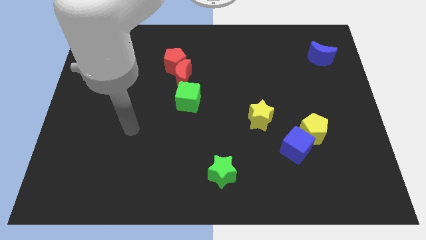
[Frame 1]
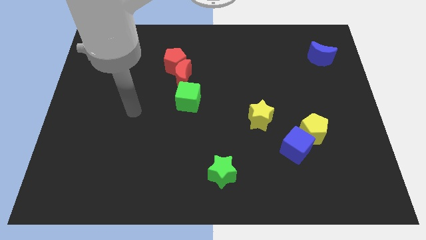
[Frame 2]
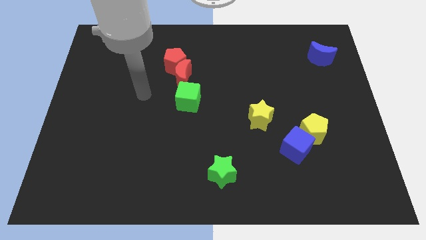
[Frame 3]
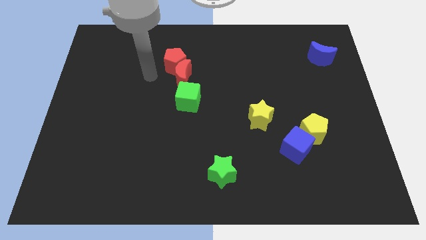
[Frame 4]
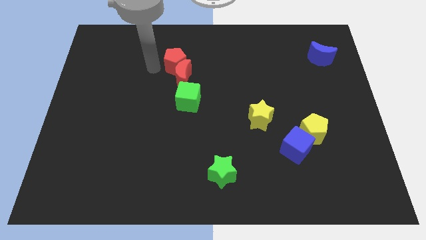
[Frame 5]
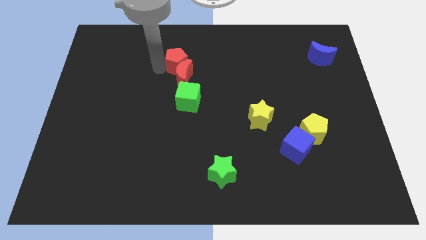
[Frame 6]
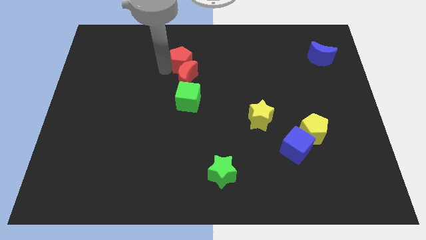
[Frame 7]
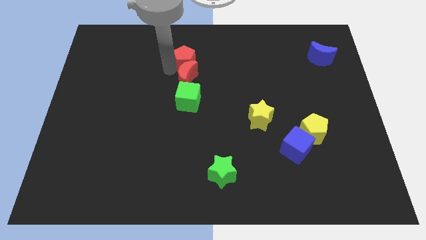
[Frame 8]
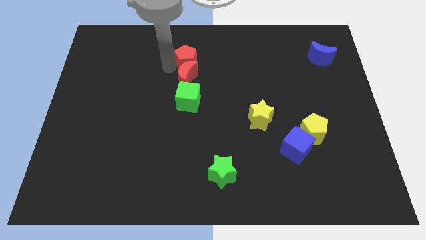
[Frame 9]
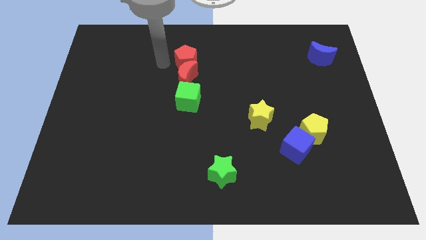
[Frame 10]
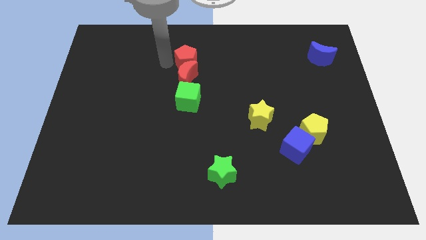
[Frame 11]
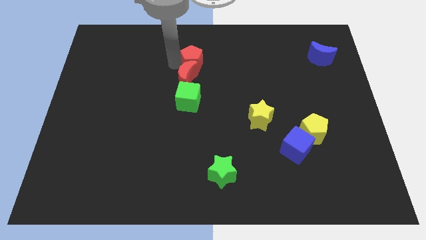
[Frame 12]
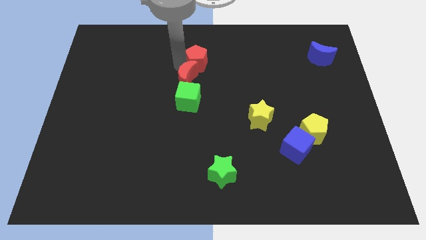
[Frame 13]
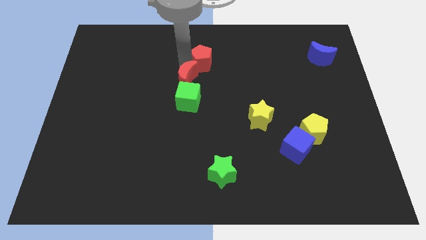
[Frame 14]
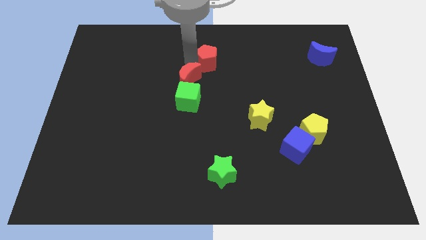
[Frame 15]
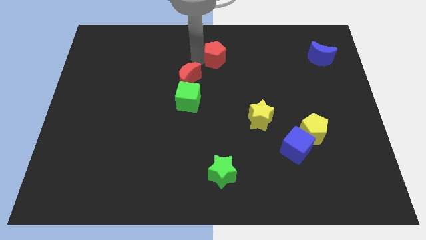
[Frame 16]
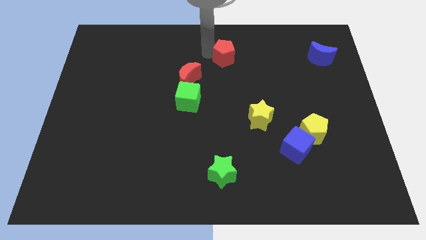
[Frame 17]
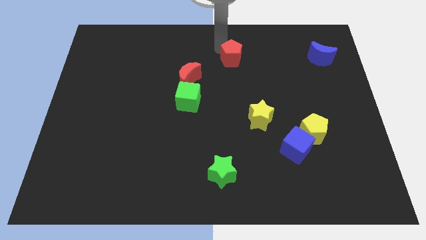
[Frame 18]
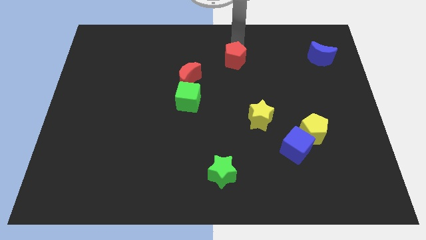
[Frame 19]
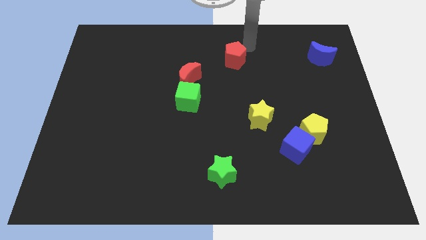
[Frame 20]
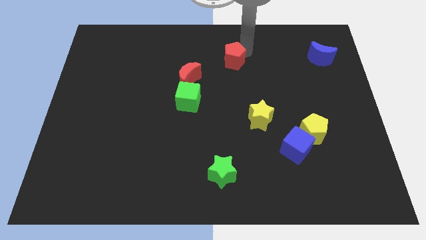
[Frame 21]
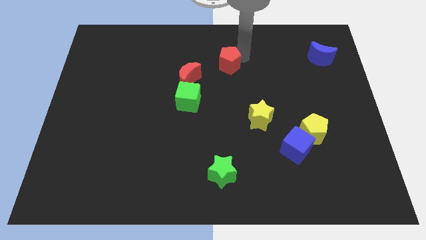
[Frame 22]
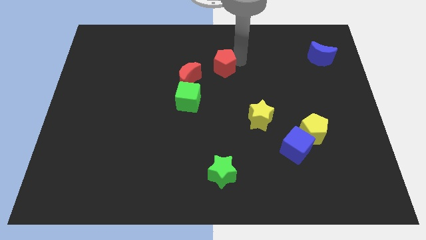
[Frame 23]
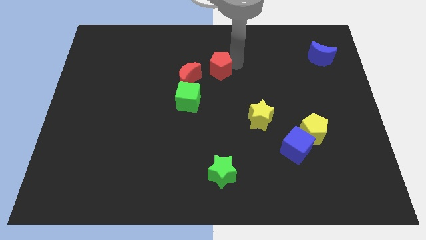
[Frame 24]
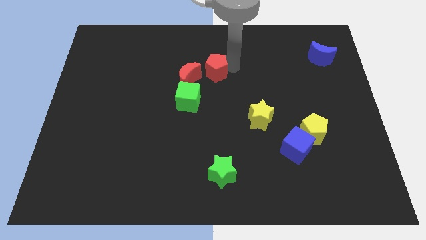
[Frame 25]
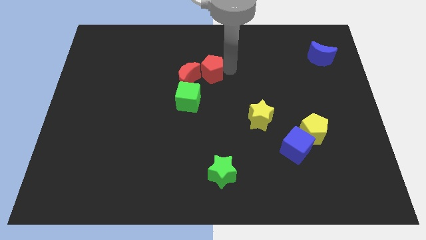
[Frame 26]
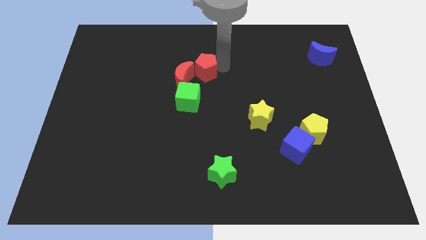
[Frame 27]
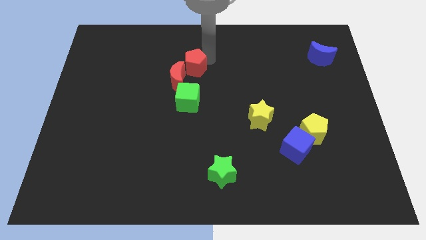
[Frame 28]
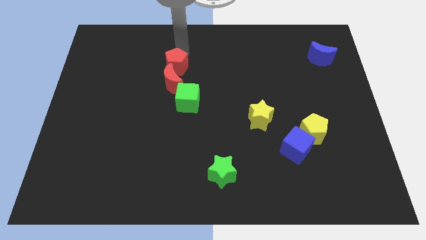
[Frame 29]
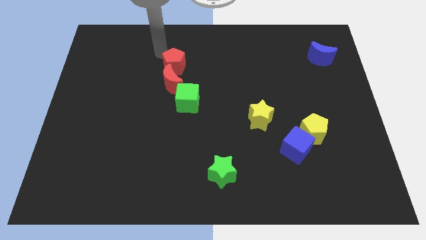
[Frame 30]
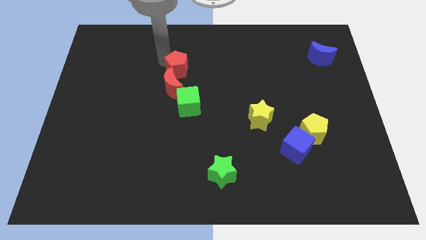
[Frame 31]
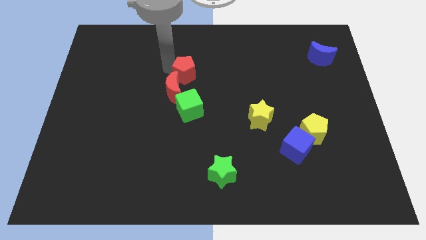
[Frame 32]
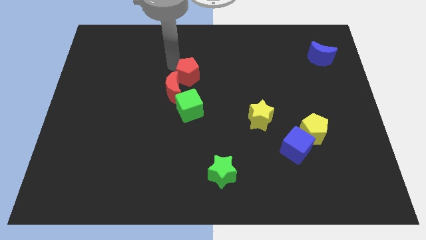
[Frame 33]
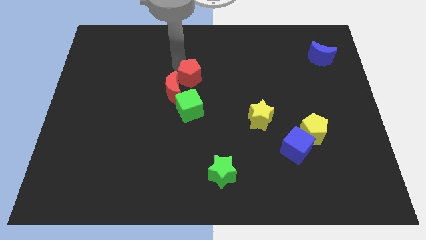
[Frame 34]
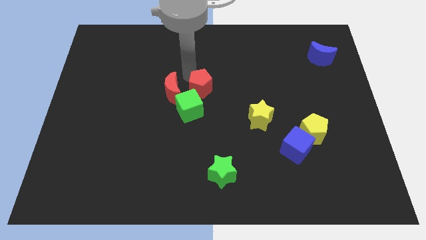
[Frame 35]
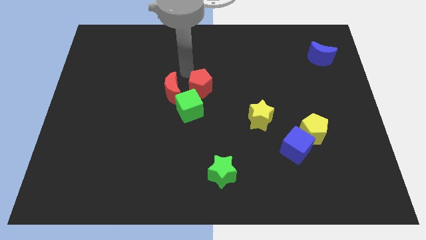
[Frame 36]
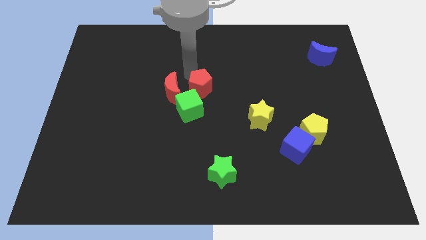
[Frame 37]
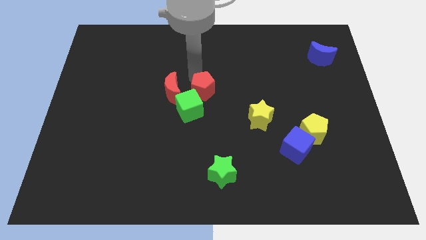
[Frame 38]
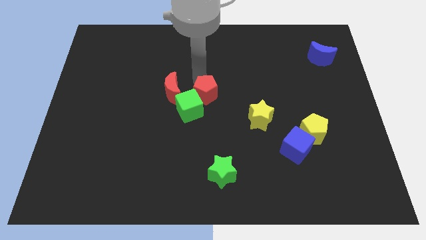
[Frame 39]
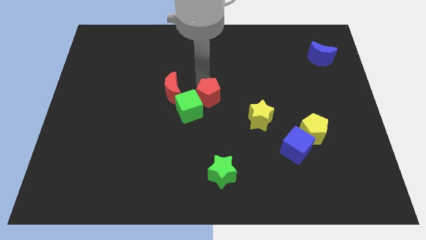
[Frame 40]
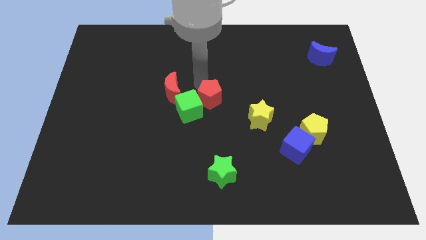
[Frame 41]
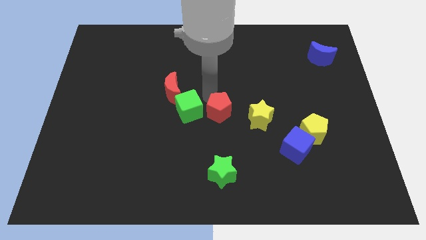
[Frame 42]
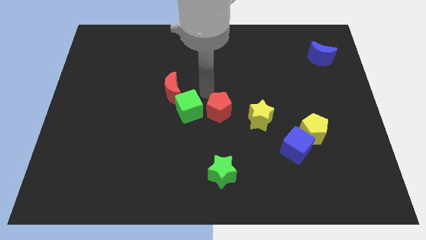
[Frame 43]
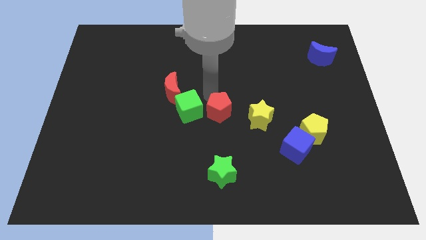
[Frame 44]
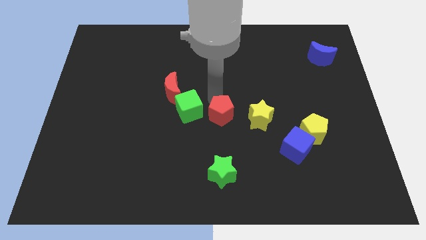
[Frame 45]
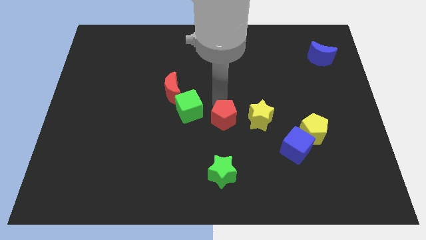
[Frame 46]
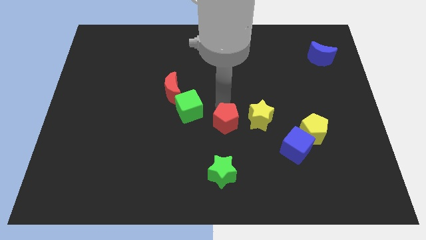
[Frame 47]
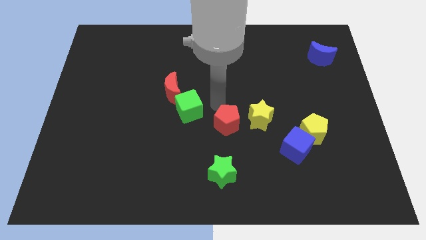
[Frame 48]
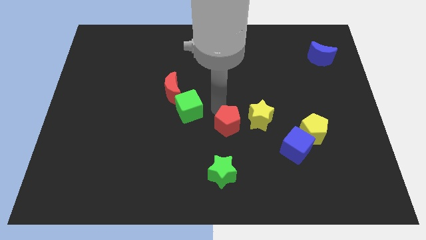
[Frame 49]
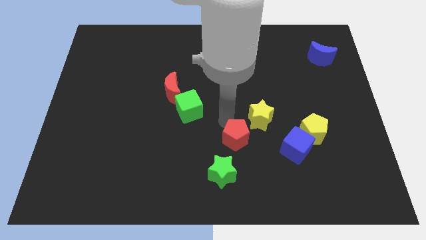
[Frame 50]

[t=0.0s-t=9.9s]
move the red pentagon to the top right side of the green star

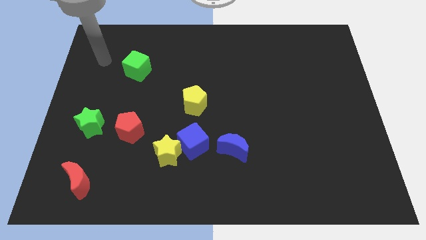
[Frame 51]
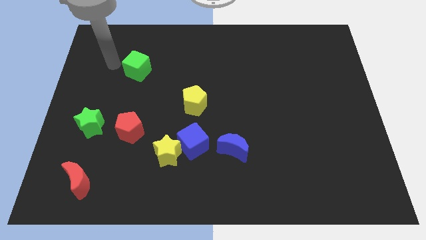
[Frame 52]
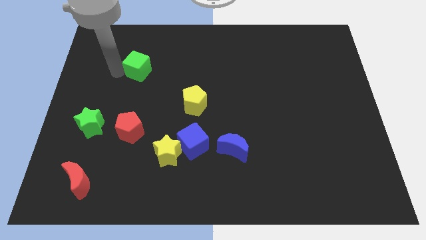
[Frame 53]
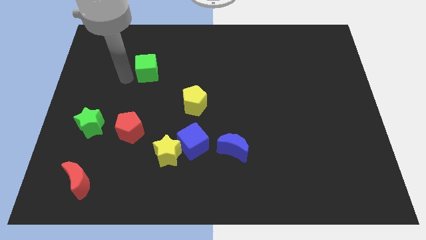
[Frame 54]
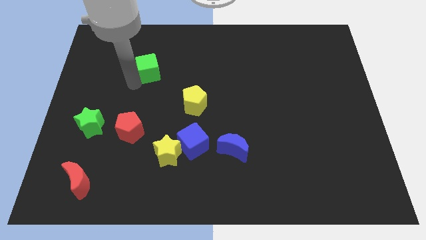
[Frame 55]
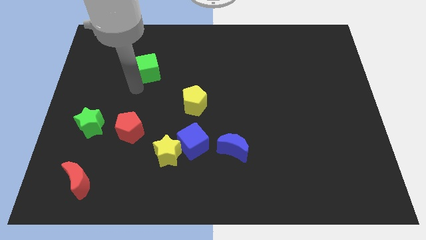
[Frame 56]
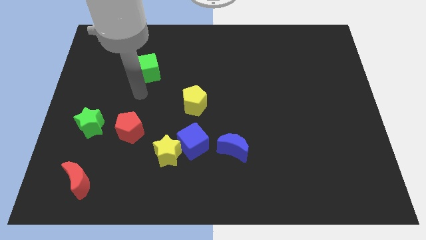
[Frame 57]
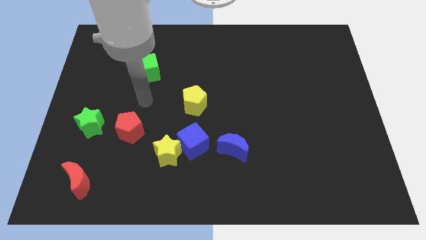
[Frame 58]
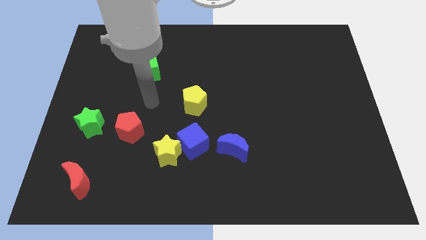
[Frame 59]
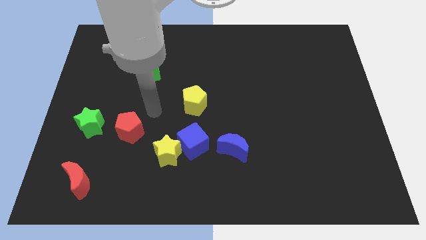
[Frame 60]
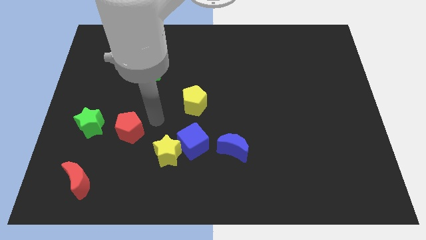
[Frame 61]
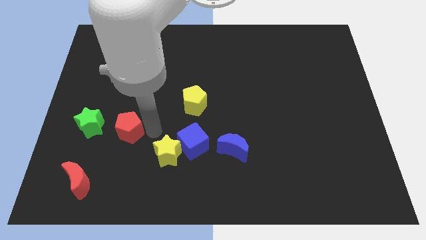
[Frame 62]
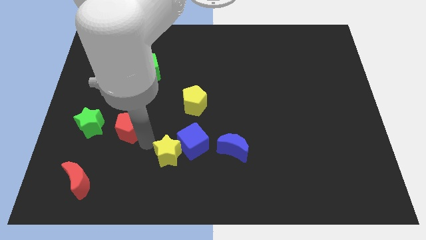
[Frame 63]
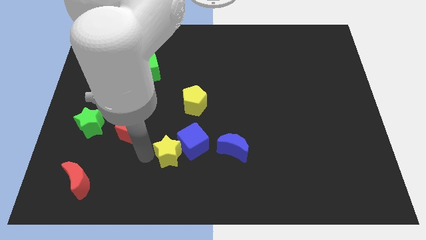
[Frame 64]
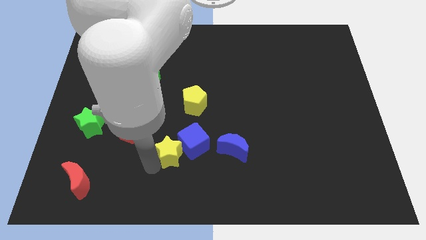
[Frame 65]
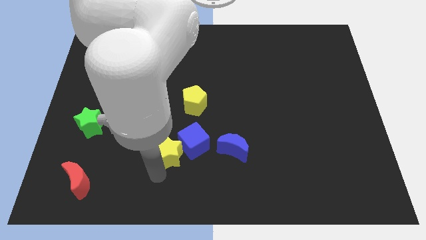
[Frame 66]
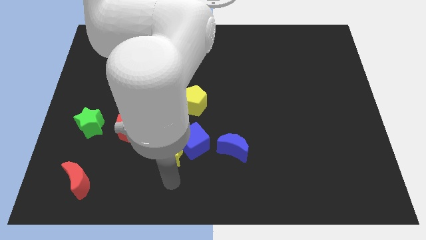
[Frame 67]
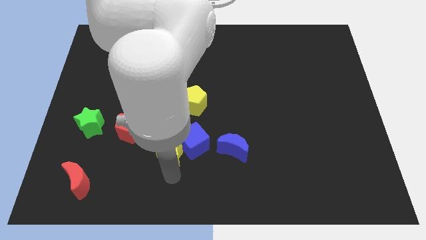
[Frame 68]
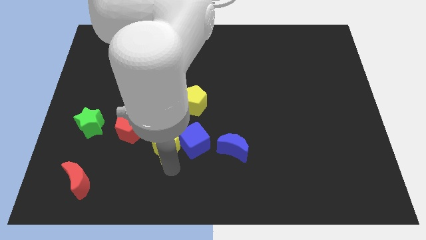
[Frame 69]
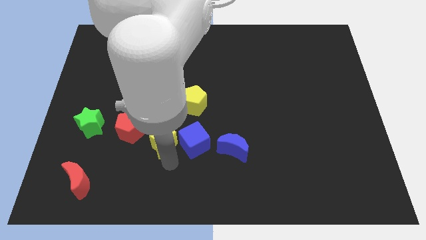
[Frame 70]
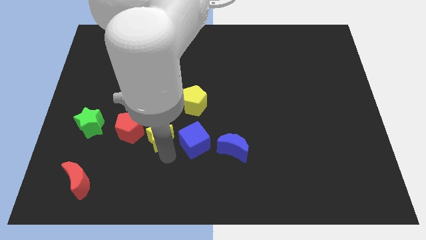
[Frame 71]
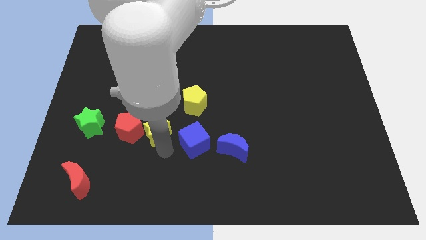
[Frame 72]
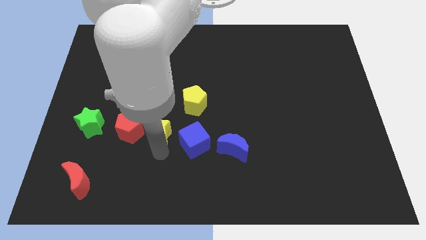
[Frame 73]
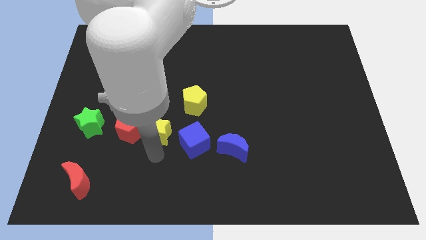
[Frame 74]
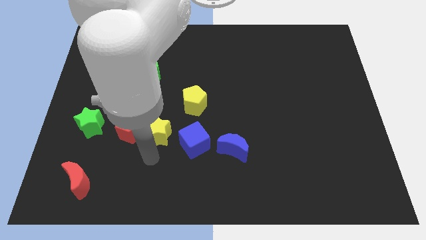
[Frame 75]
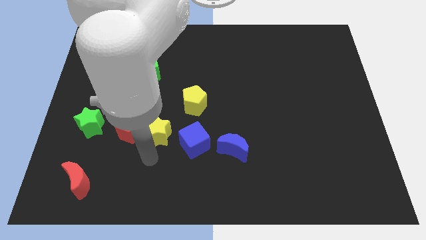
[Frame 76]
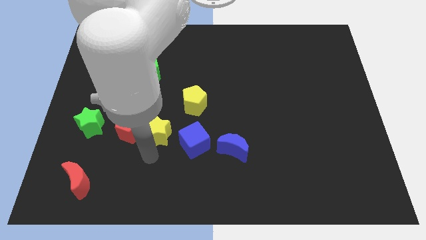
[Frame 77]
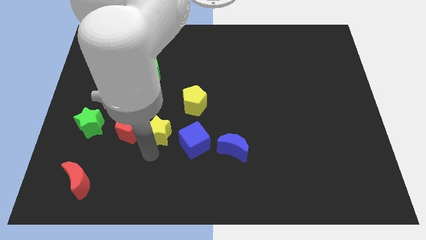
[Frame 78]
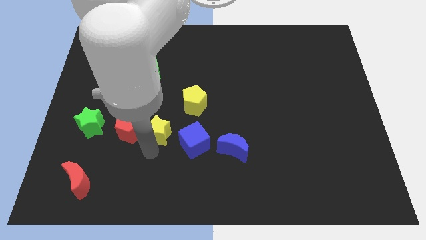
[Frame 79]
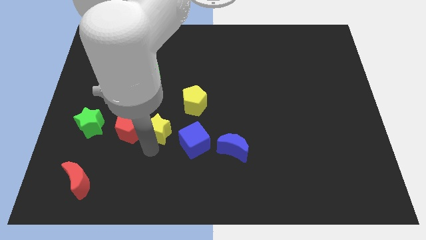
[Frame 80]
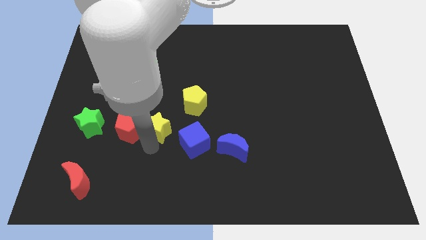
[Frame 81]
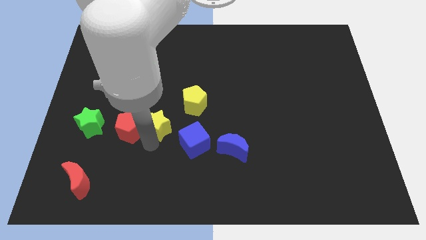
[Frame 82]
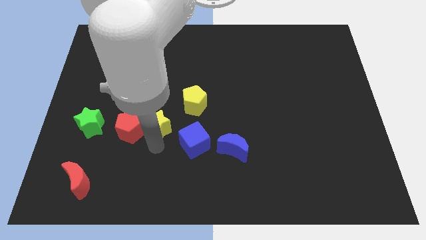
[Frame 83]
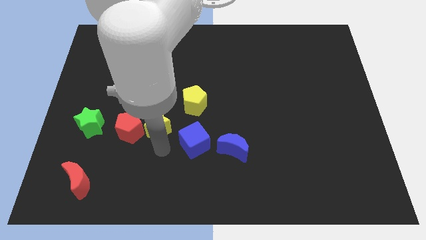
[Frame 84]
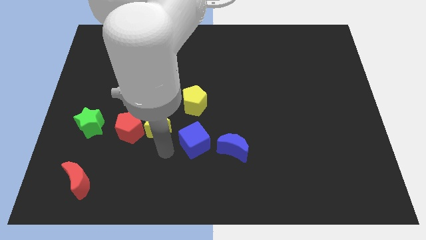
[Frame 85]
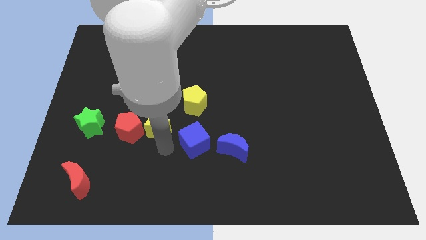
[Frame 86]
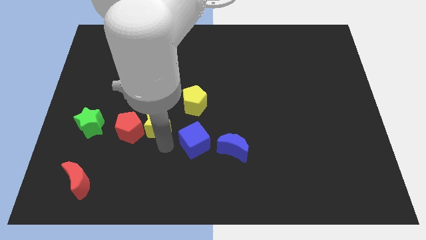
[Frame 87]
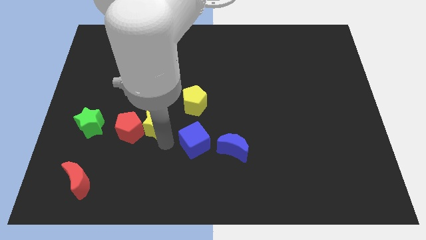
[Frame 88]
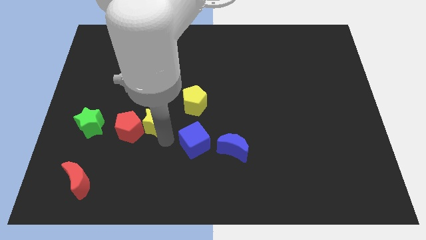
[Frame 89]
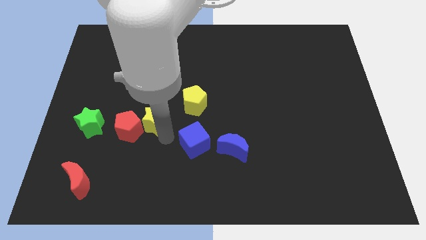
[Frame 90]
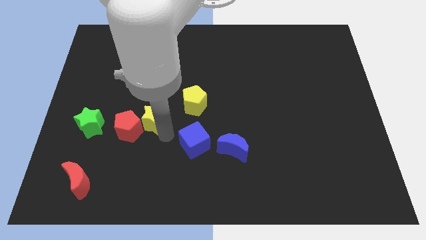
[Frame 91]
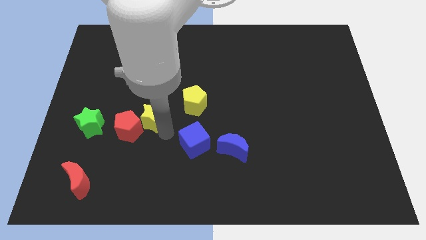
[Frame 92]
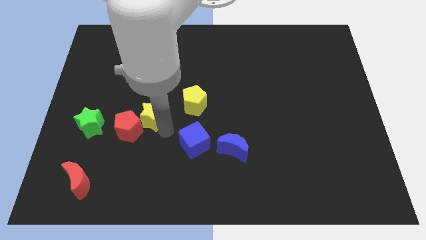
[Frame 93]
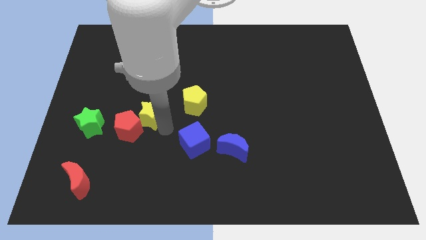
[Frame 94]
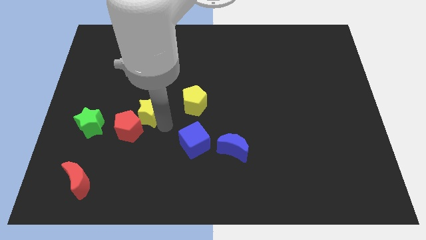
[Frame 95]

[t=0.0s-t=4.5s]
push the yellow star to the top side of the red pentagon
